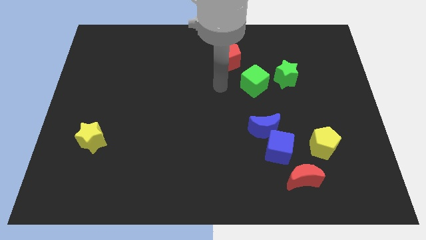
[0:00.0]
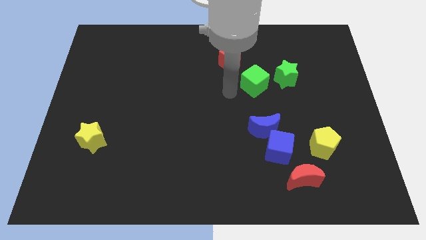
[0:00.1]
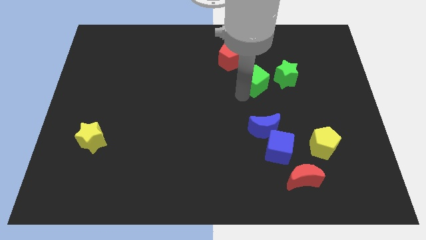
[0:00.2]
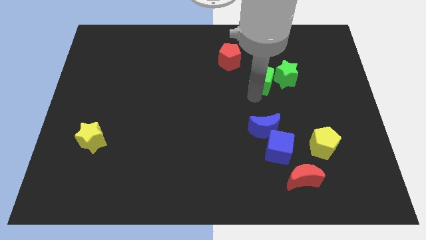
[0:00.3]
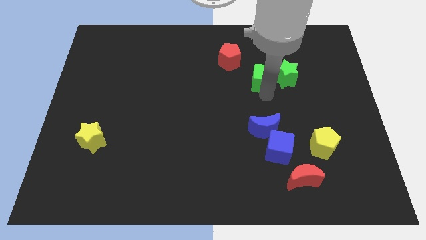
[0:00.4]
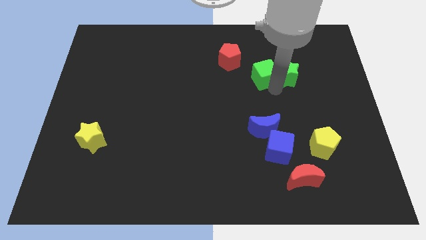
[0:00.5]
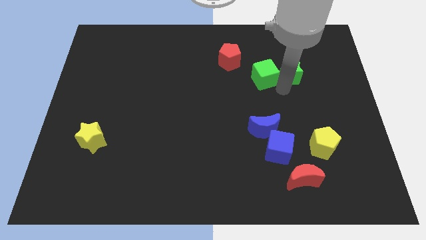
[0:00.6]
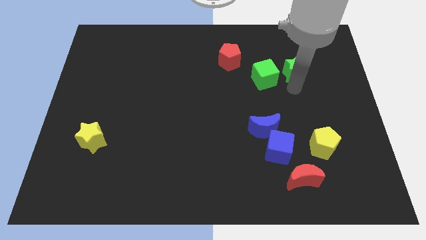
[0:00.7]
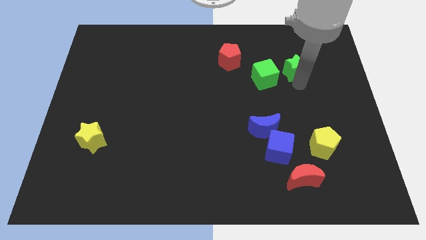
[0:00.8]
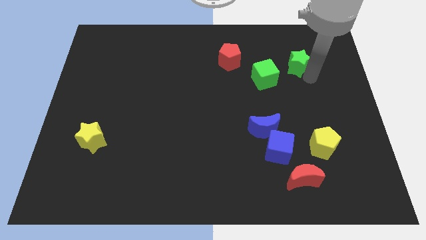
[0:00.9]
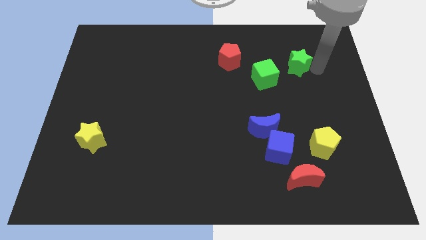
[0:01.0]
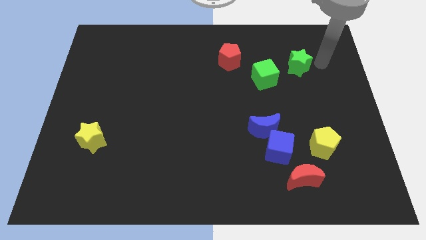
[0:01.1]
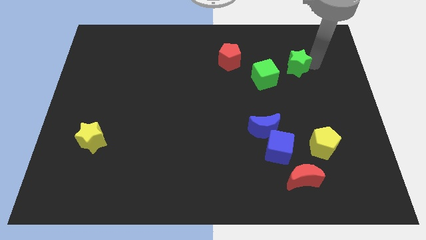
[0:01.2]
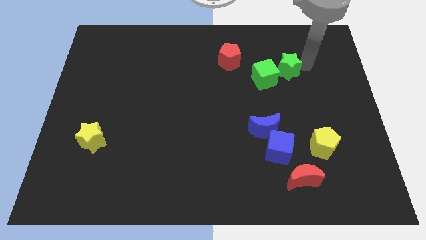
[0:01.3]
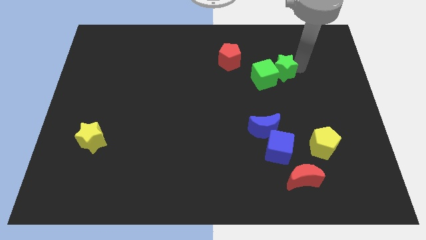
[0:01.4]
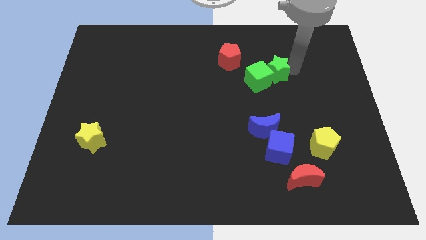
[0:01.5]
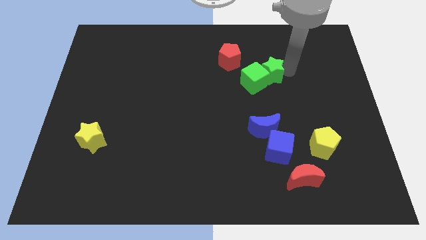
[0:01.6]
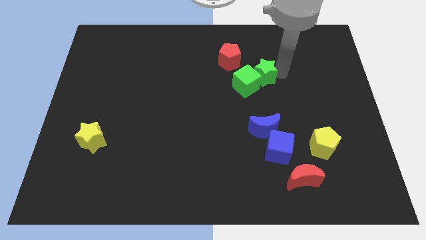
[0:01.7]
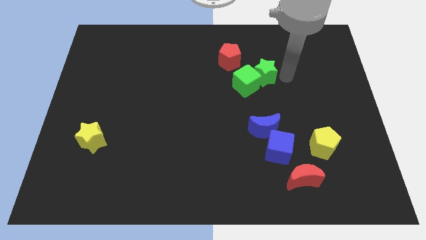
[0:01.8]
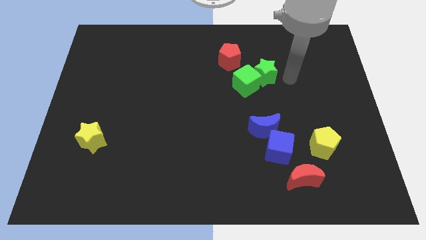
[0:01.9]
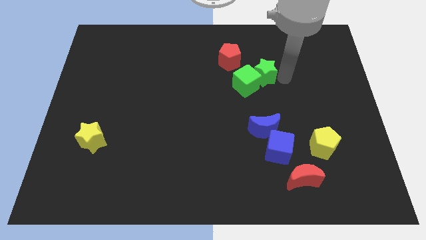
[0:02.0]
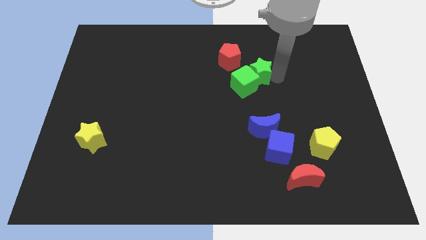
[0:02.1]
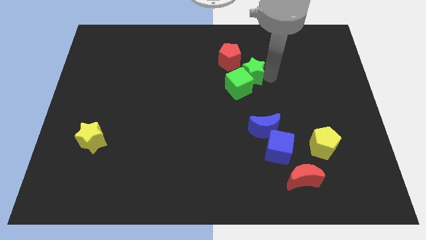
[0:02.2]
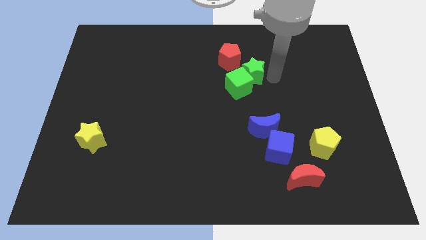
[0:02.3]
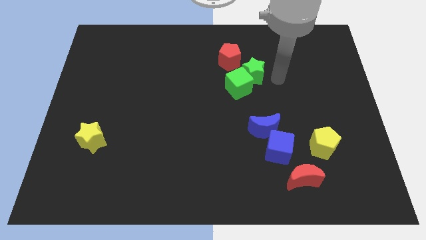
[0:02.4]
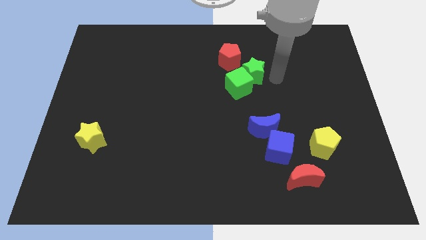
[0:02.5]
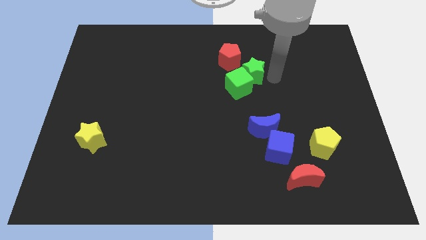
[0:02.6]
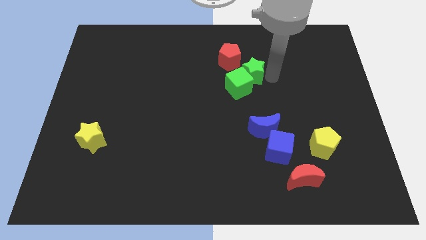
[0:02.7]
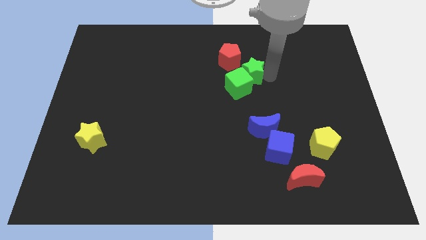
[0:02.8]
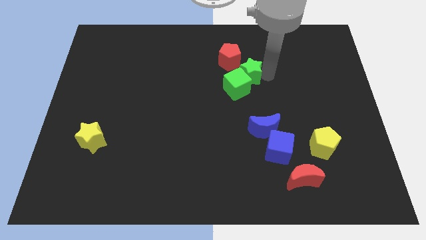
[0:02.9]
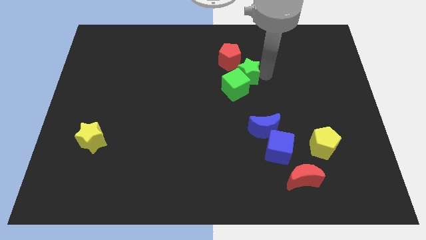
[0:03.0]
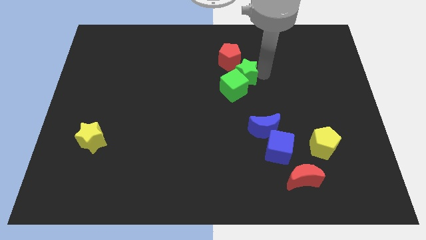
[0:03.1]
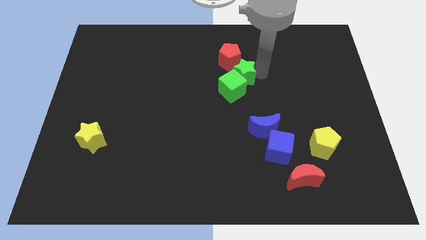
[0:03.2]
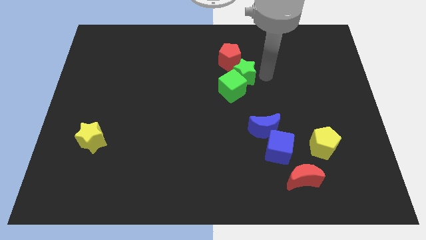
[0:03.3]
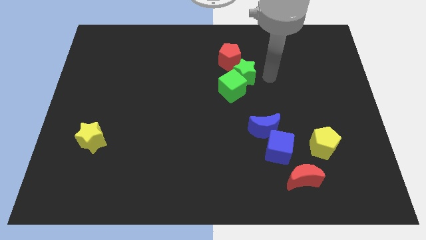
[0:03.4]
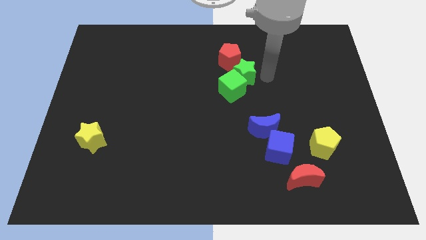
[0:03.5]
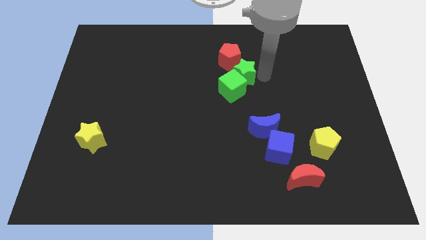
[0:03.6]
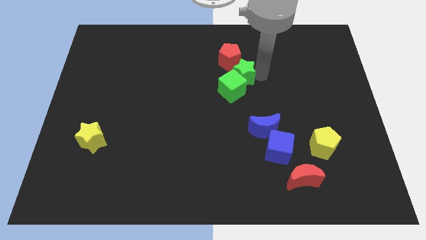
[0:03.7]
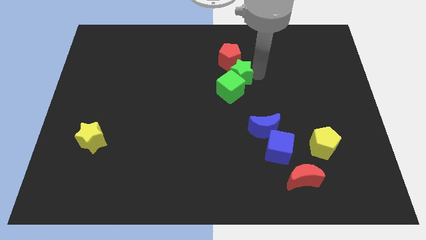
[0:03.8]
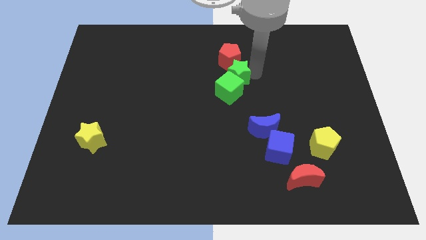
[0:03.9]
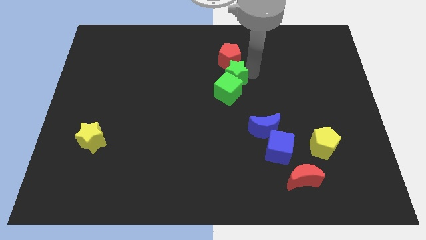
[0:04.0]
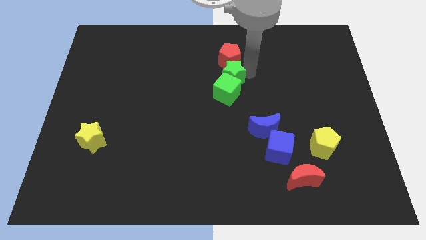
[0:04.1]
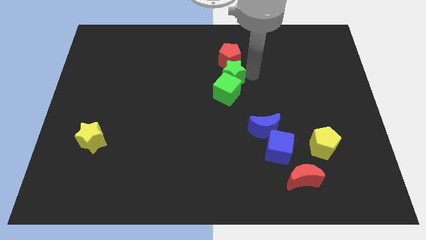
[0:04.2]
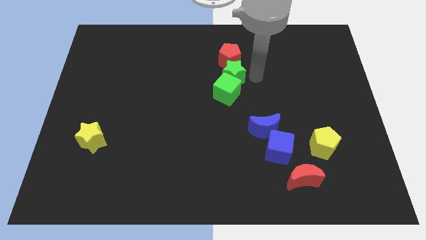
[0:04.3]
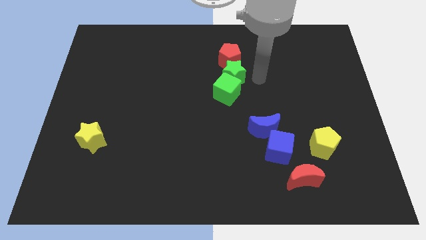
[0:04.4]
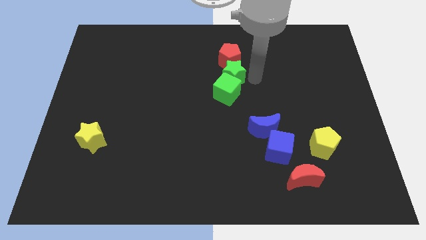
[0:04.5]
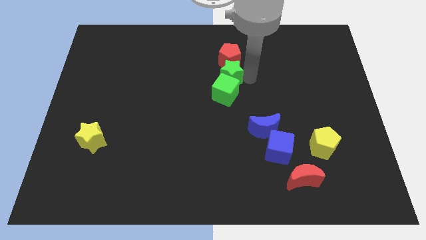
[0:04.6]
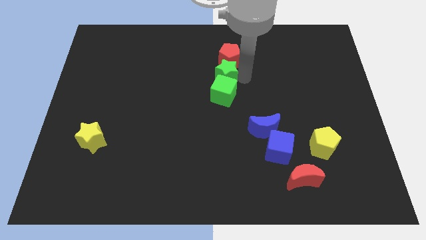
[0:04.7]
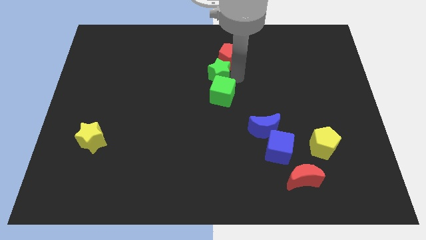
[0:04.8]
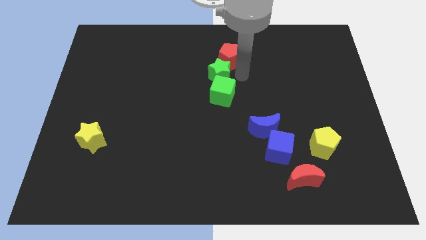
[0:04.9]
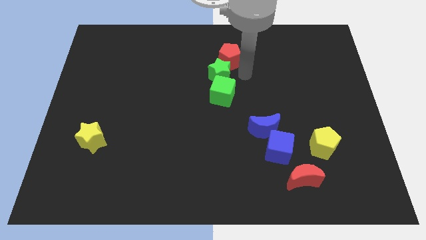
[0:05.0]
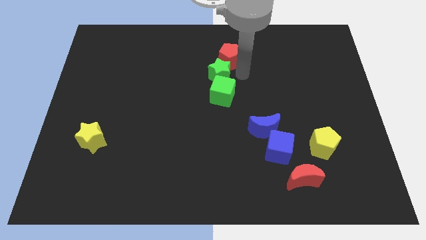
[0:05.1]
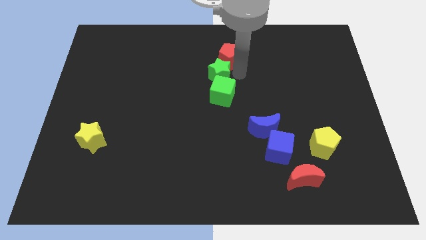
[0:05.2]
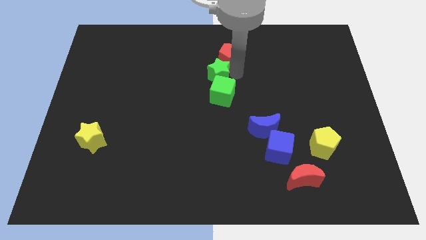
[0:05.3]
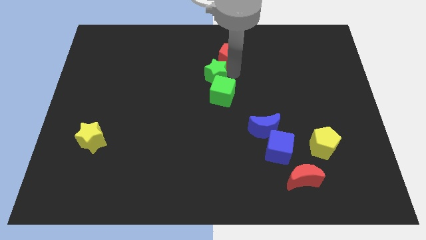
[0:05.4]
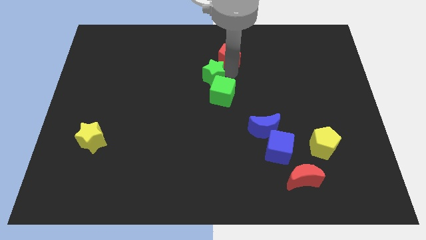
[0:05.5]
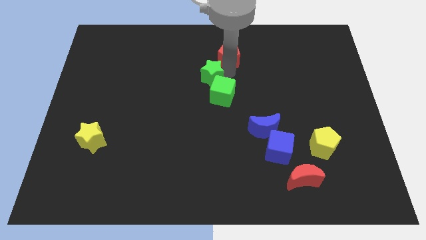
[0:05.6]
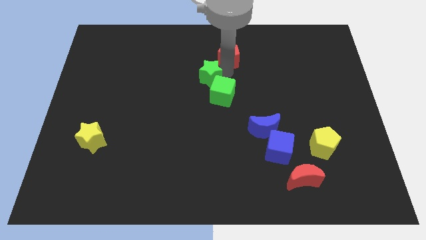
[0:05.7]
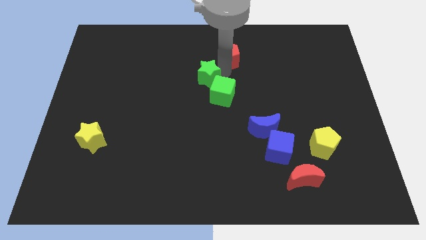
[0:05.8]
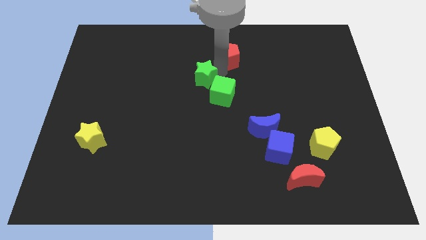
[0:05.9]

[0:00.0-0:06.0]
slide the green star to the left

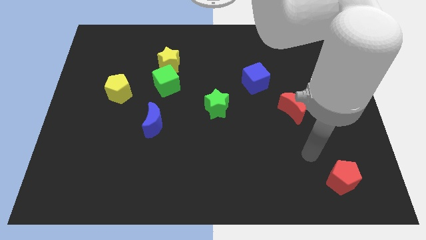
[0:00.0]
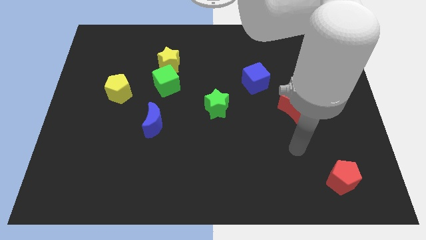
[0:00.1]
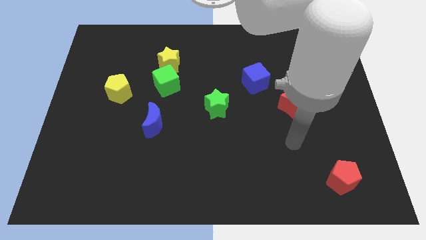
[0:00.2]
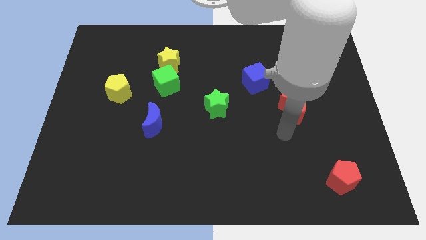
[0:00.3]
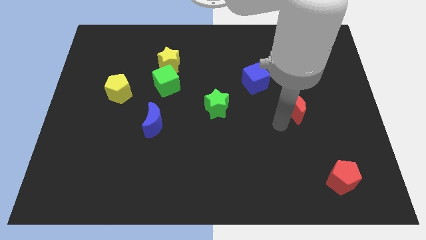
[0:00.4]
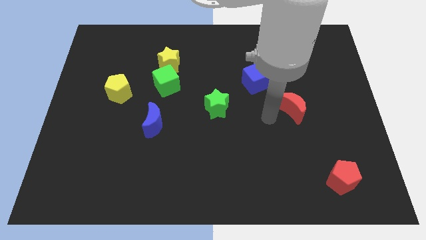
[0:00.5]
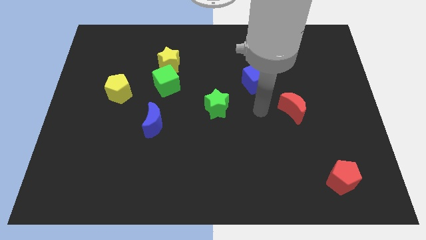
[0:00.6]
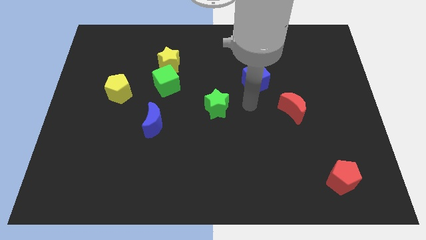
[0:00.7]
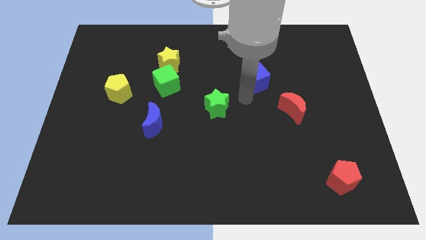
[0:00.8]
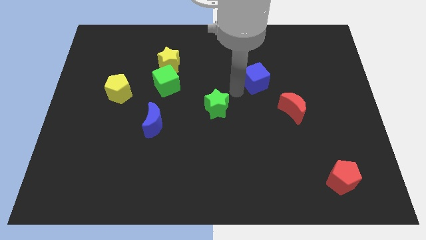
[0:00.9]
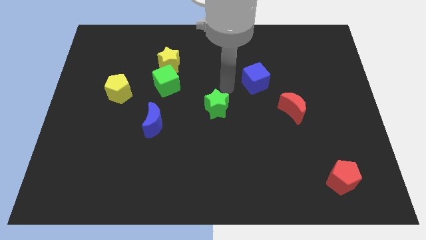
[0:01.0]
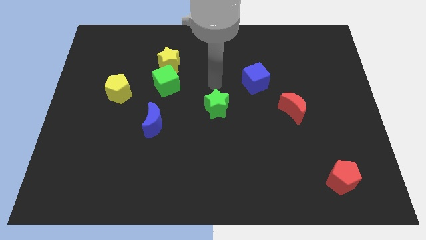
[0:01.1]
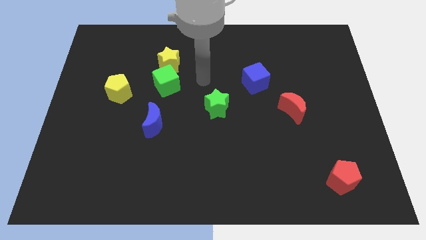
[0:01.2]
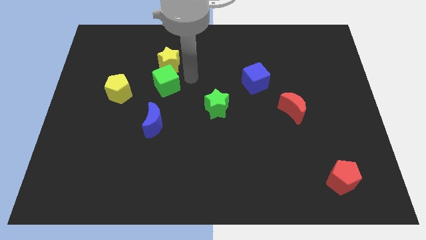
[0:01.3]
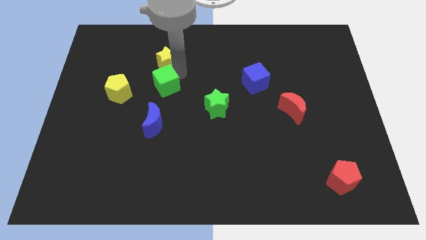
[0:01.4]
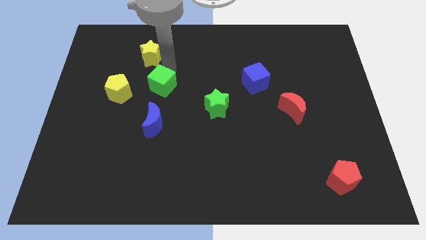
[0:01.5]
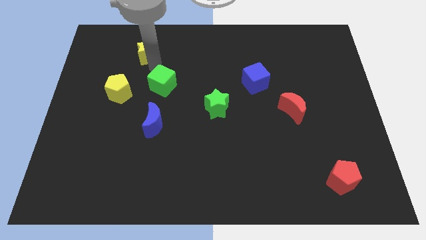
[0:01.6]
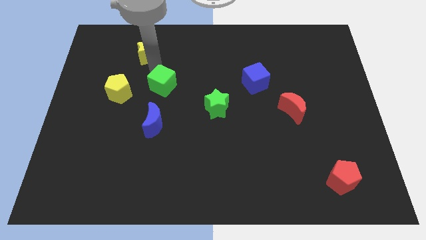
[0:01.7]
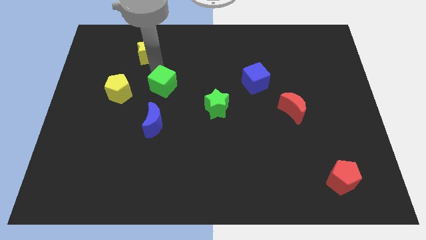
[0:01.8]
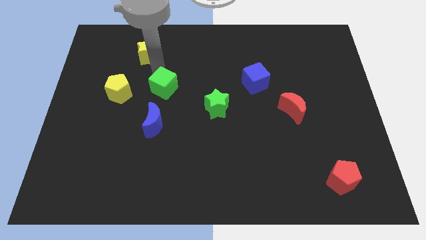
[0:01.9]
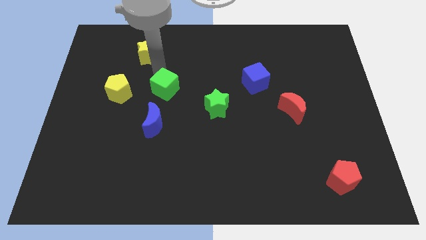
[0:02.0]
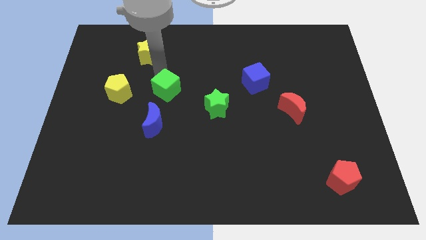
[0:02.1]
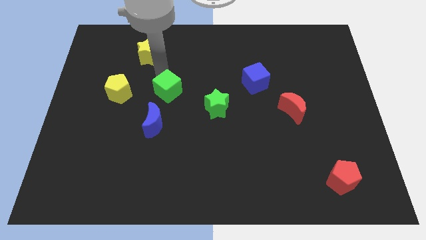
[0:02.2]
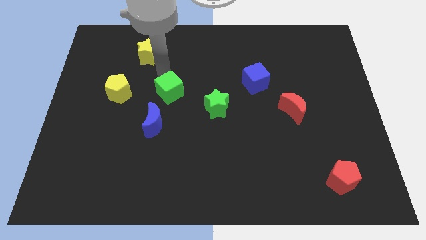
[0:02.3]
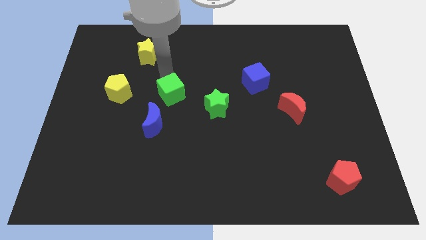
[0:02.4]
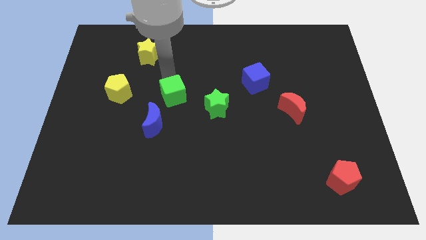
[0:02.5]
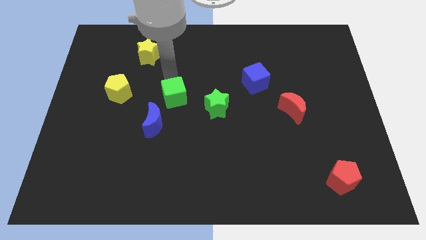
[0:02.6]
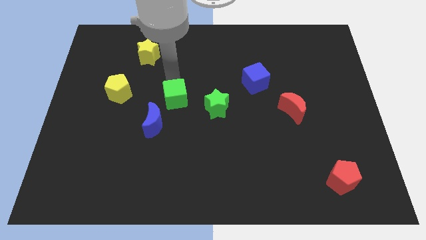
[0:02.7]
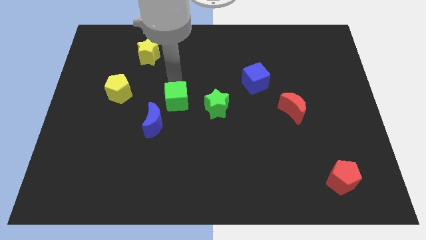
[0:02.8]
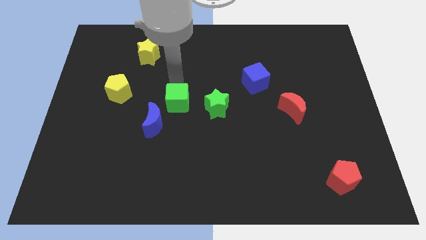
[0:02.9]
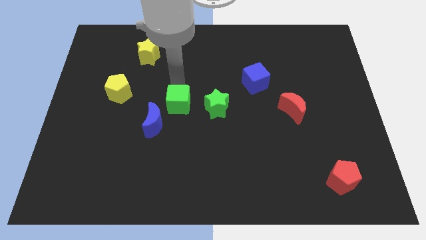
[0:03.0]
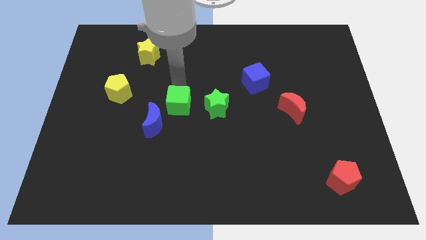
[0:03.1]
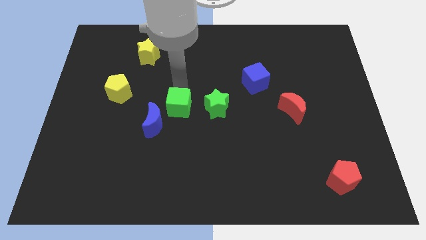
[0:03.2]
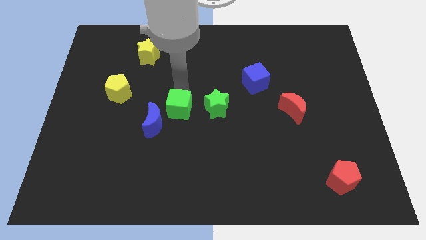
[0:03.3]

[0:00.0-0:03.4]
slide the green cube a bit down
